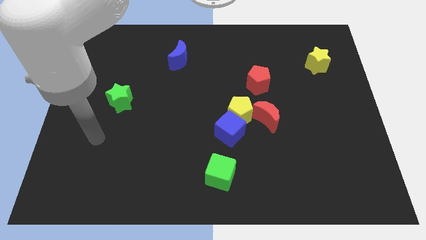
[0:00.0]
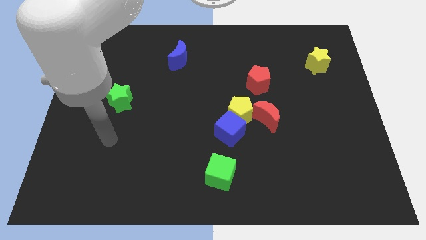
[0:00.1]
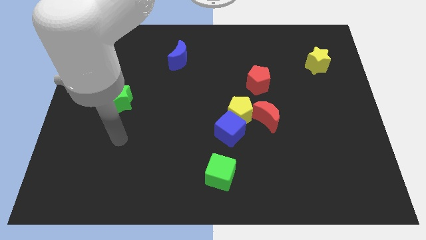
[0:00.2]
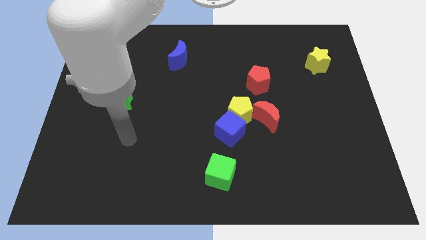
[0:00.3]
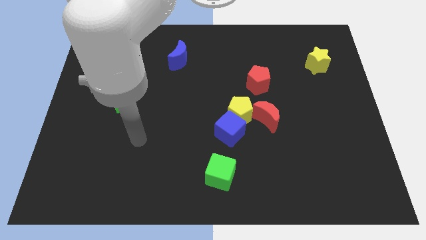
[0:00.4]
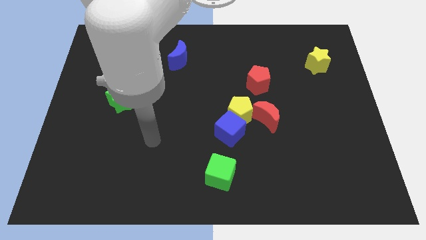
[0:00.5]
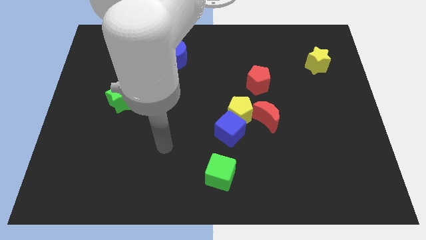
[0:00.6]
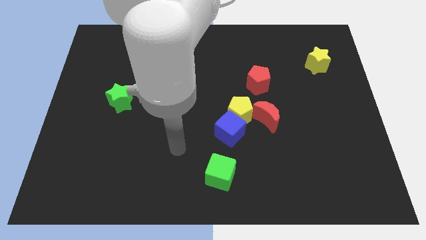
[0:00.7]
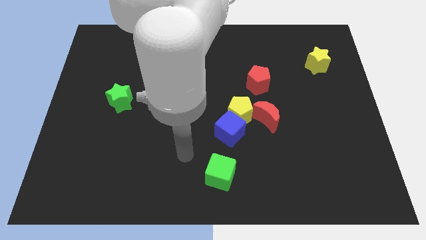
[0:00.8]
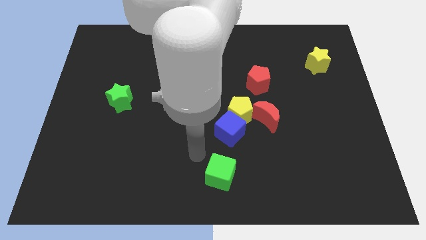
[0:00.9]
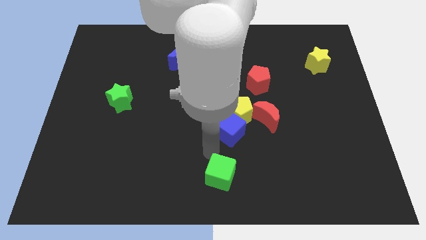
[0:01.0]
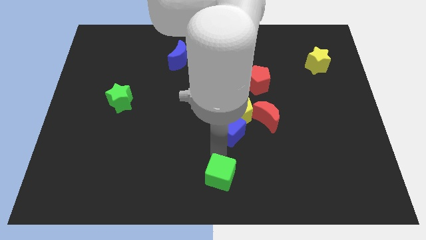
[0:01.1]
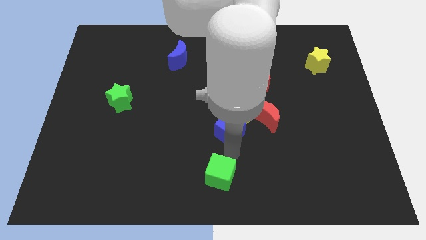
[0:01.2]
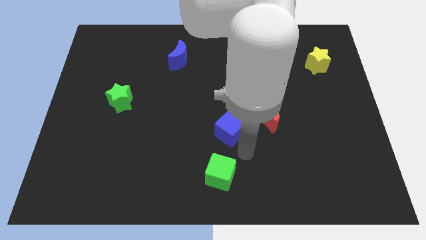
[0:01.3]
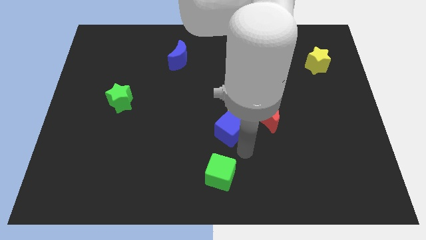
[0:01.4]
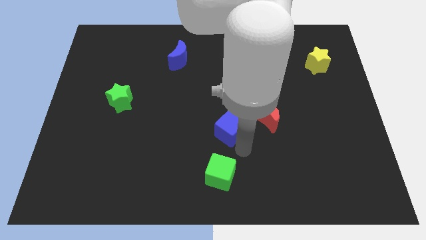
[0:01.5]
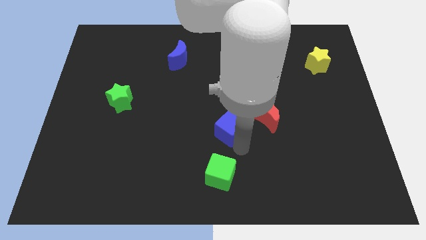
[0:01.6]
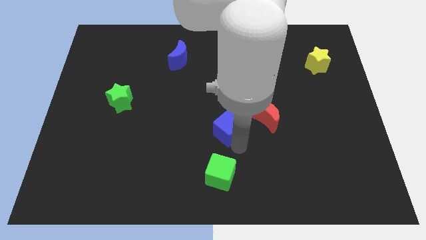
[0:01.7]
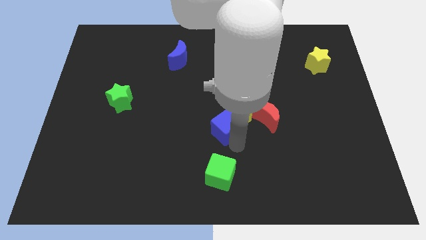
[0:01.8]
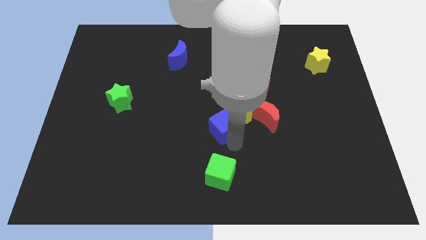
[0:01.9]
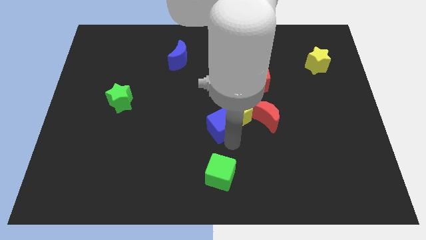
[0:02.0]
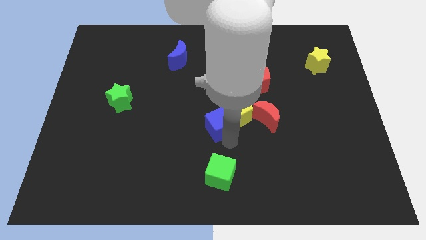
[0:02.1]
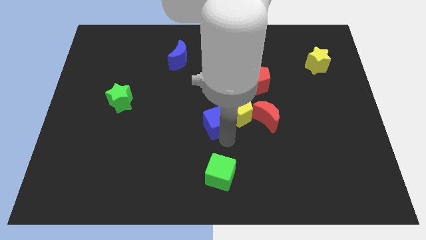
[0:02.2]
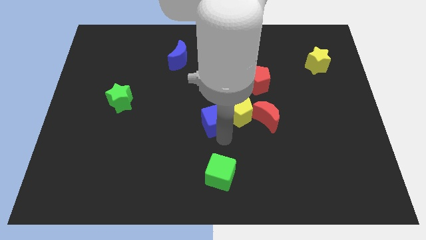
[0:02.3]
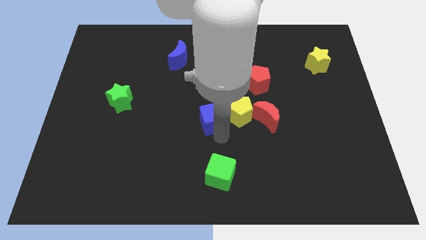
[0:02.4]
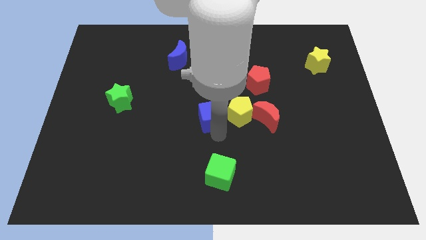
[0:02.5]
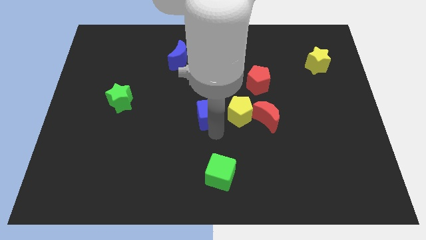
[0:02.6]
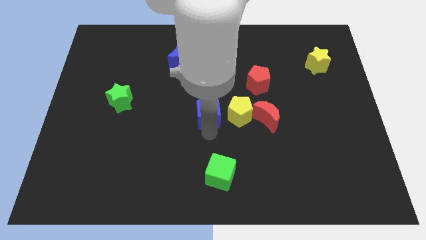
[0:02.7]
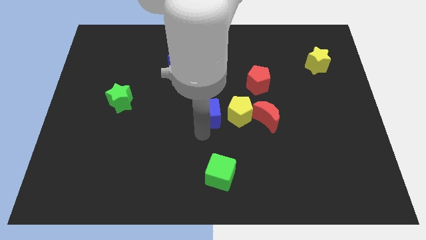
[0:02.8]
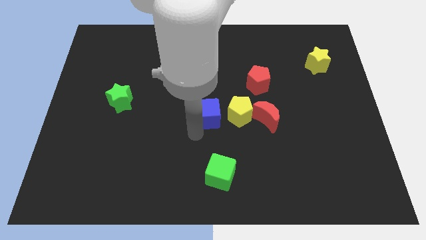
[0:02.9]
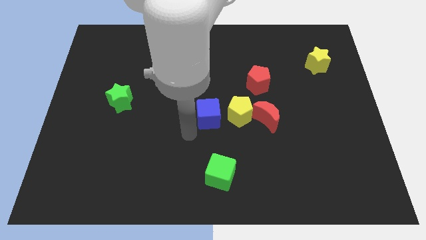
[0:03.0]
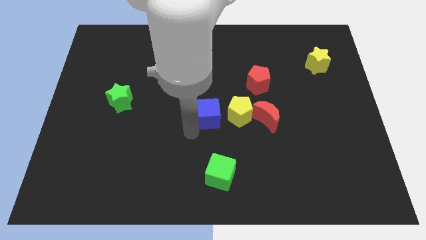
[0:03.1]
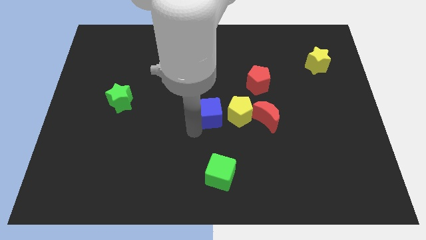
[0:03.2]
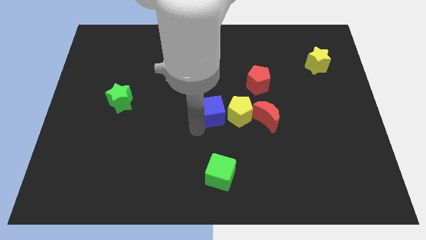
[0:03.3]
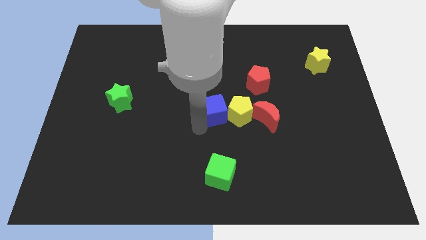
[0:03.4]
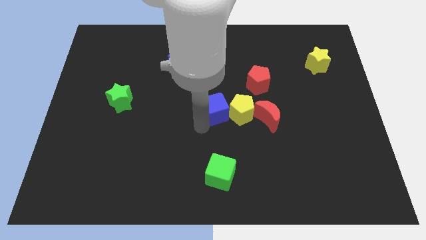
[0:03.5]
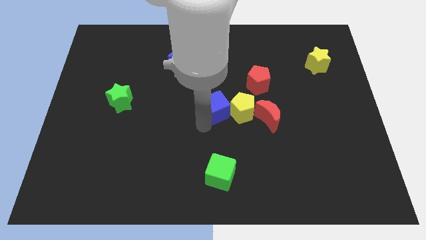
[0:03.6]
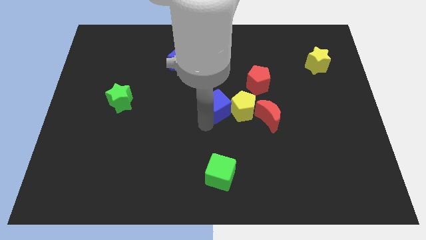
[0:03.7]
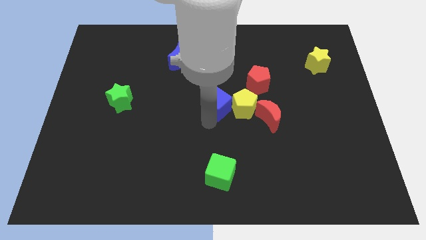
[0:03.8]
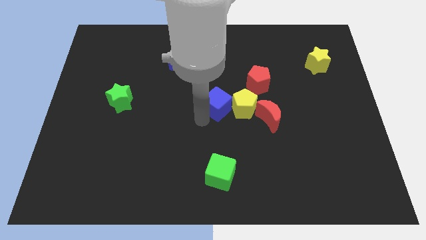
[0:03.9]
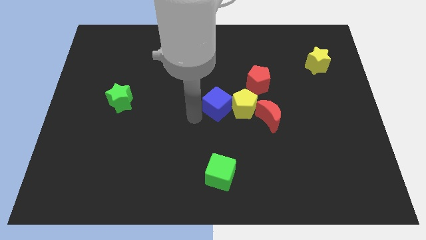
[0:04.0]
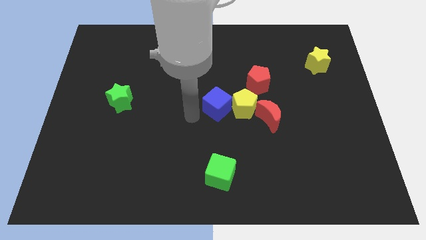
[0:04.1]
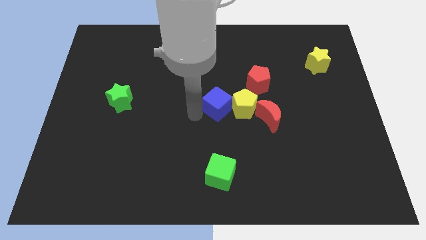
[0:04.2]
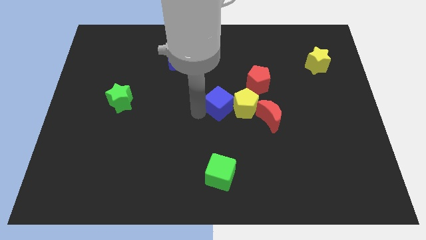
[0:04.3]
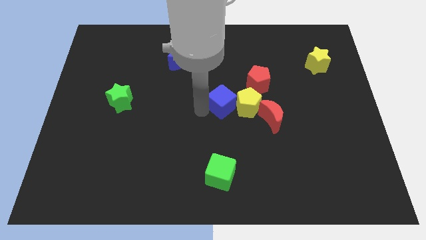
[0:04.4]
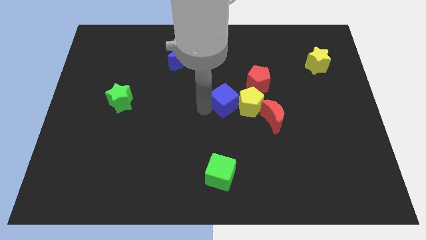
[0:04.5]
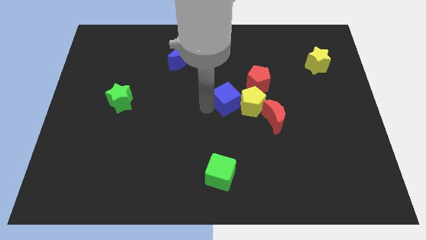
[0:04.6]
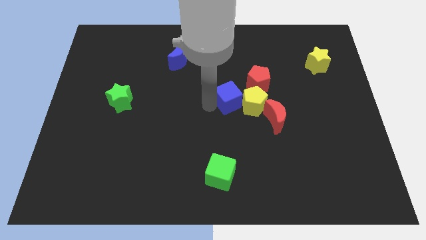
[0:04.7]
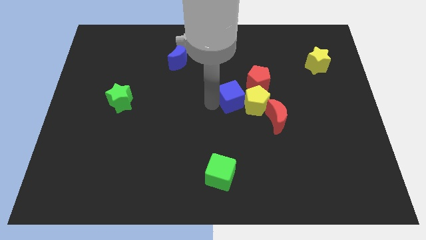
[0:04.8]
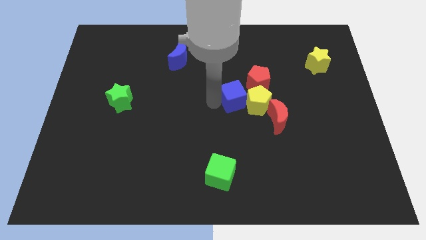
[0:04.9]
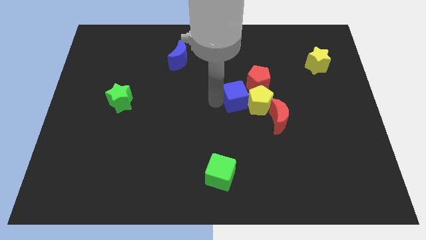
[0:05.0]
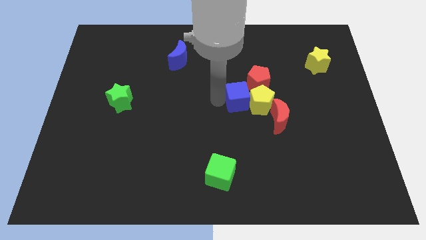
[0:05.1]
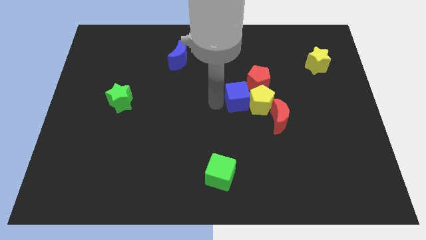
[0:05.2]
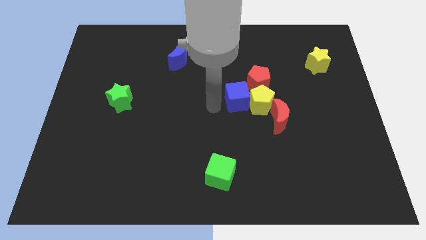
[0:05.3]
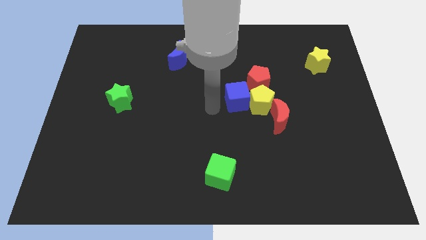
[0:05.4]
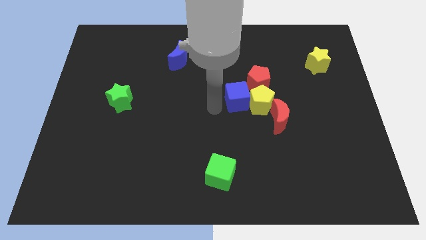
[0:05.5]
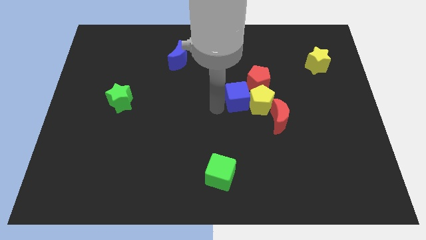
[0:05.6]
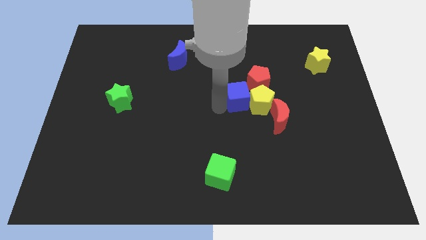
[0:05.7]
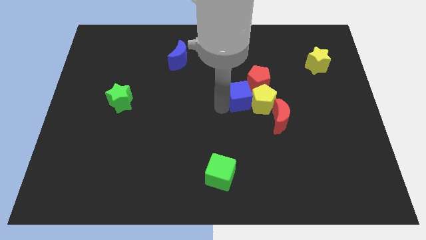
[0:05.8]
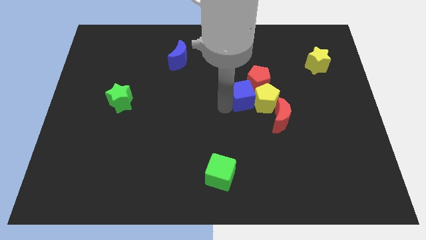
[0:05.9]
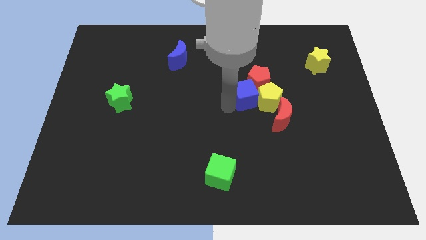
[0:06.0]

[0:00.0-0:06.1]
push the blue cube next to the red pentagon

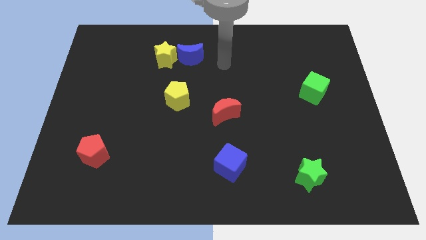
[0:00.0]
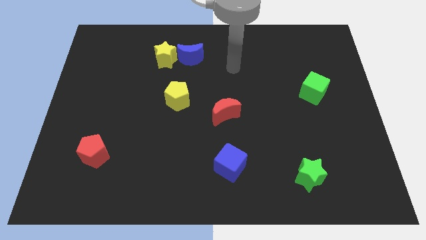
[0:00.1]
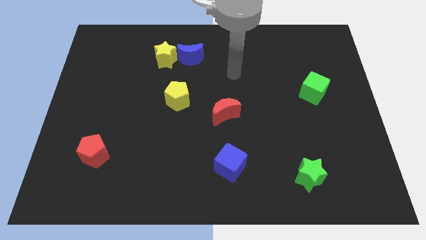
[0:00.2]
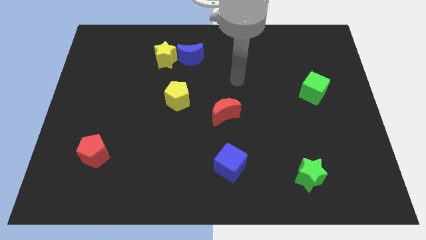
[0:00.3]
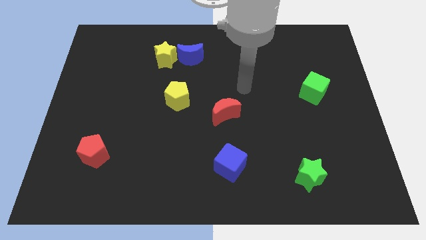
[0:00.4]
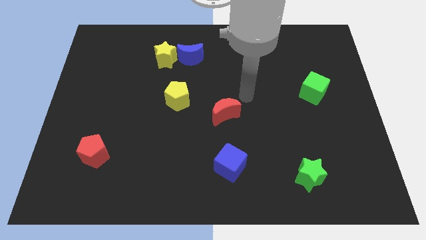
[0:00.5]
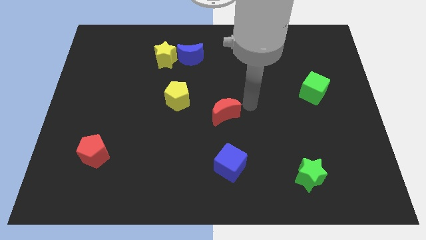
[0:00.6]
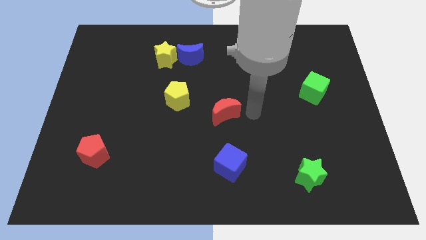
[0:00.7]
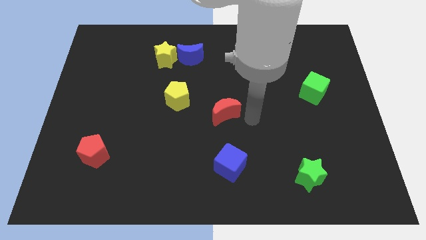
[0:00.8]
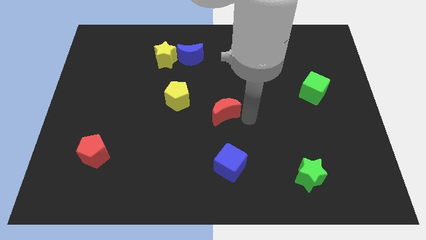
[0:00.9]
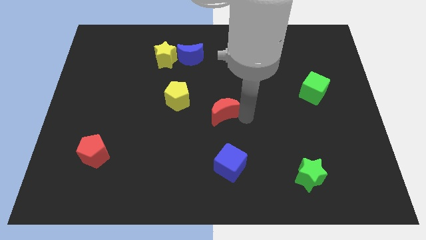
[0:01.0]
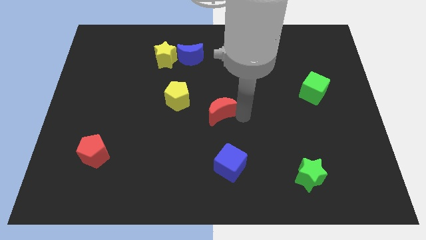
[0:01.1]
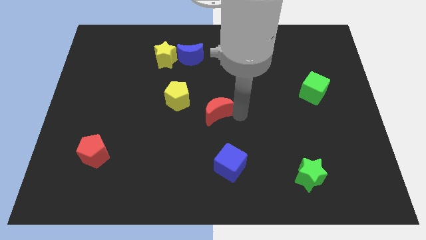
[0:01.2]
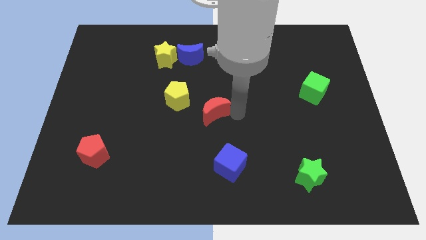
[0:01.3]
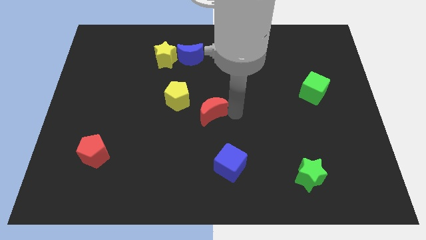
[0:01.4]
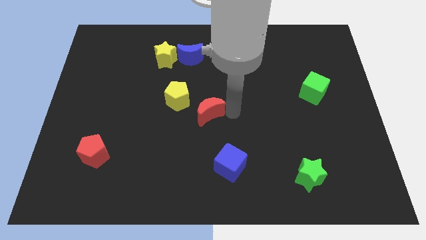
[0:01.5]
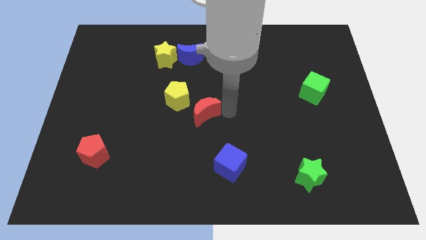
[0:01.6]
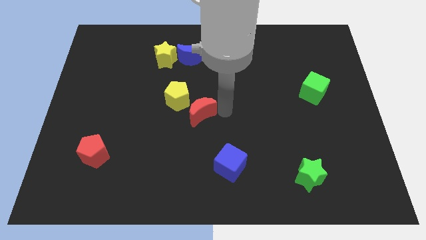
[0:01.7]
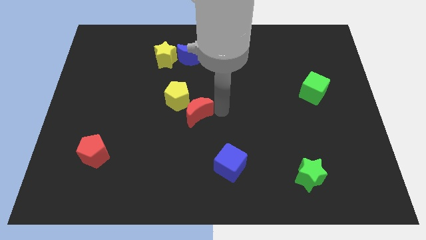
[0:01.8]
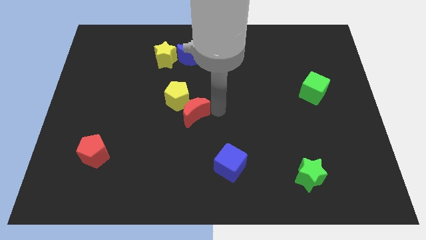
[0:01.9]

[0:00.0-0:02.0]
push the red moon next to the yellow pentagon
